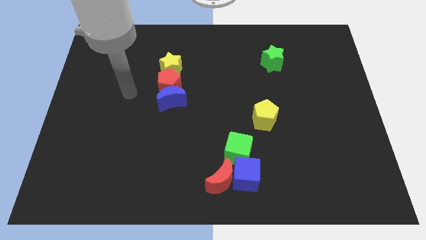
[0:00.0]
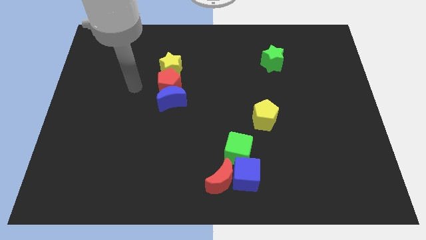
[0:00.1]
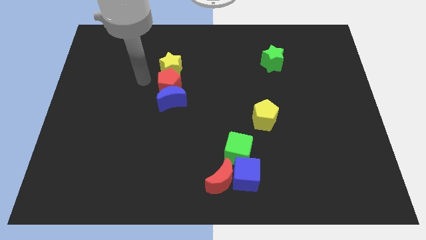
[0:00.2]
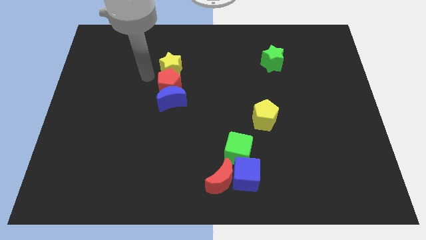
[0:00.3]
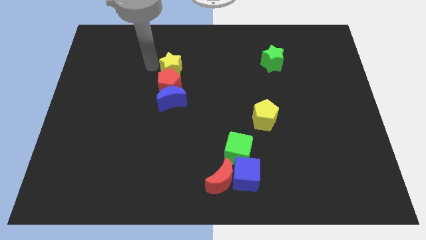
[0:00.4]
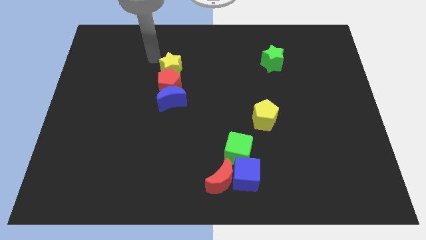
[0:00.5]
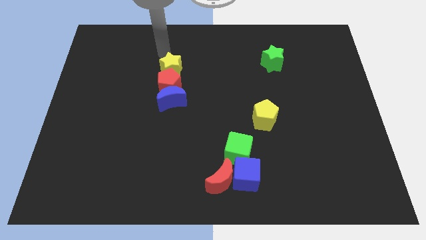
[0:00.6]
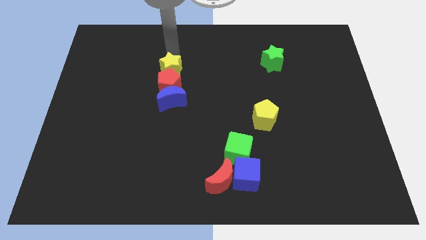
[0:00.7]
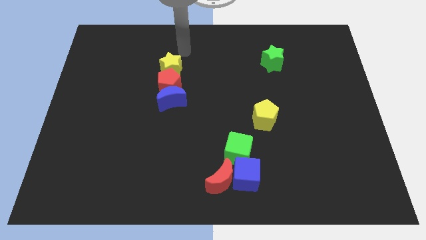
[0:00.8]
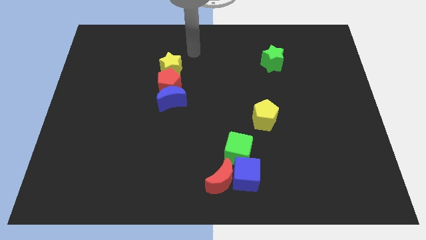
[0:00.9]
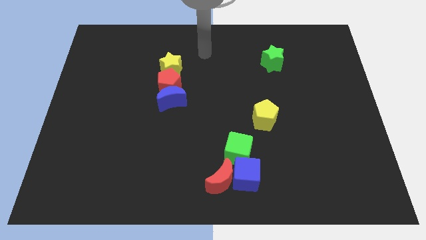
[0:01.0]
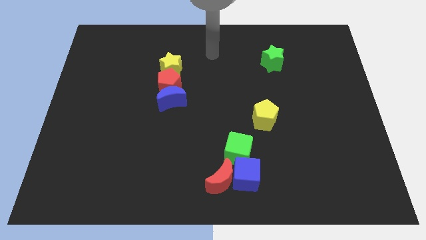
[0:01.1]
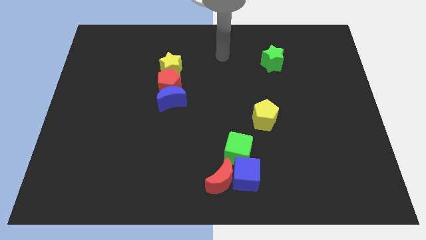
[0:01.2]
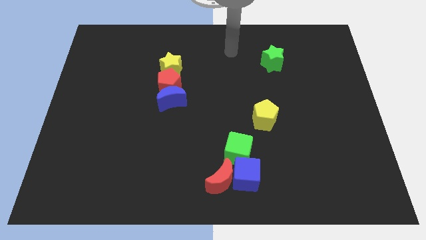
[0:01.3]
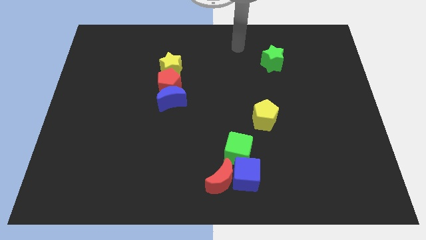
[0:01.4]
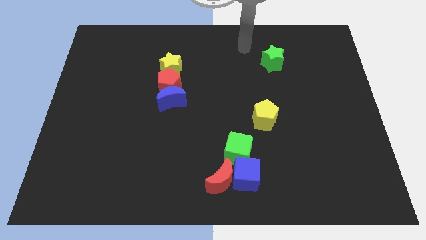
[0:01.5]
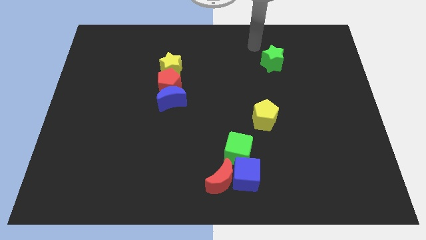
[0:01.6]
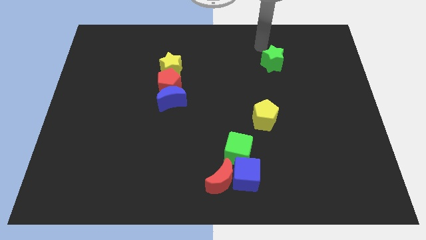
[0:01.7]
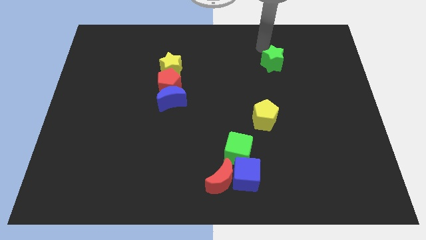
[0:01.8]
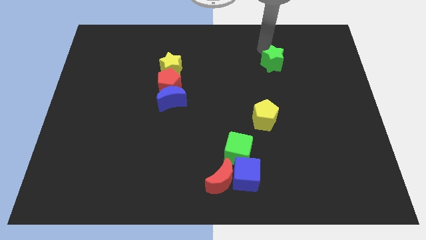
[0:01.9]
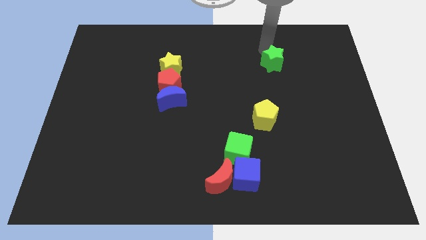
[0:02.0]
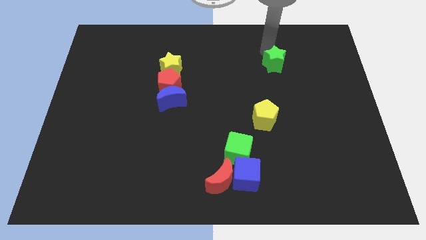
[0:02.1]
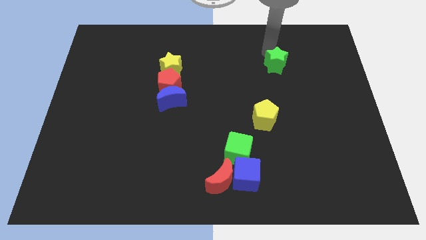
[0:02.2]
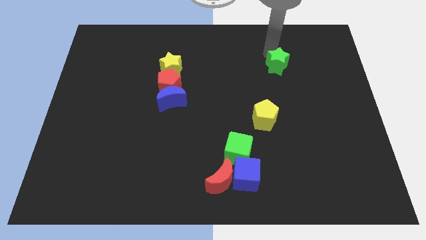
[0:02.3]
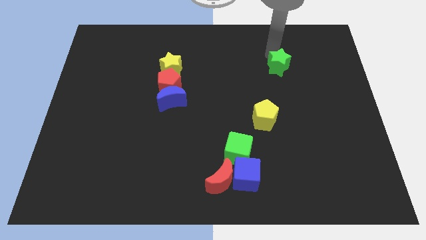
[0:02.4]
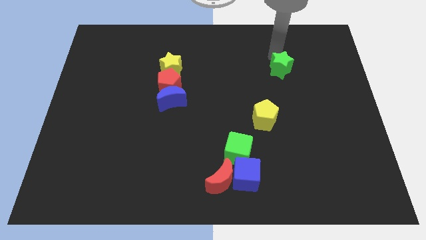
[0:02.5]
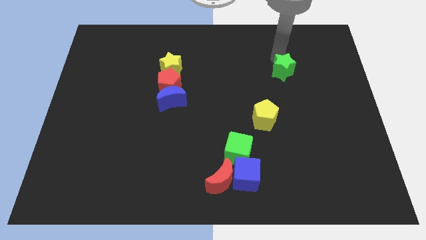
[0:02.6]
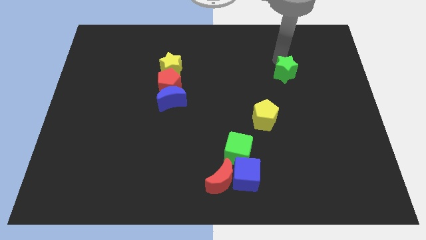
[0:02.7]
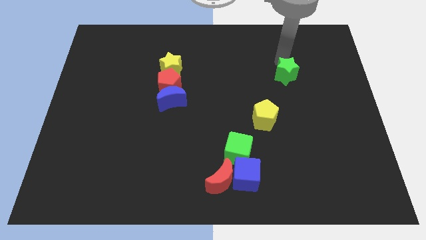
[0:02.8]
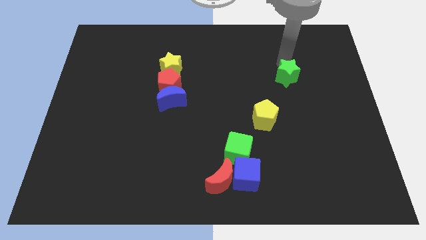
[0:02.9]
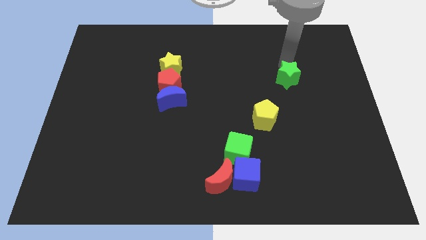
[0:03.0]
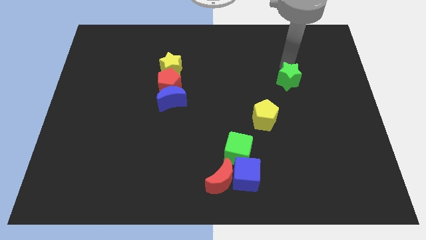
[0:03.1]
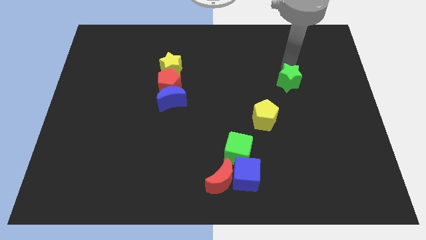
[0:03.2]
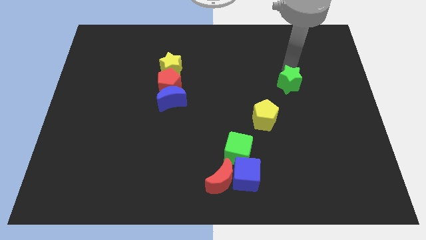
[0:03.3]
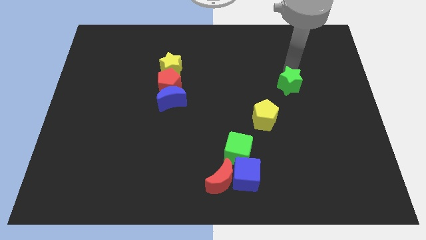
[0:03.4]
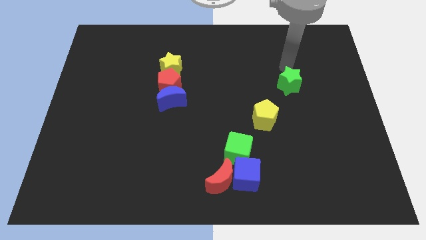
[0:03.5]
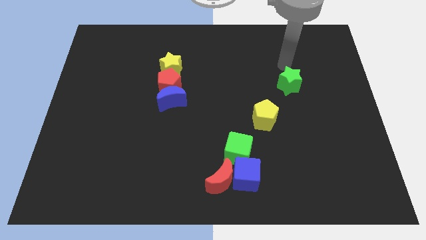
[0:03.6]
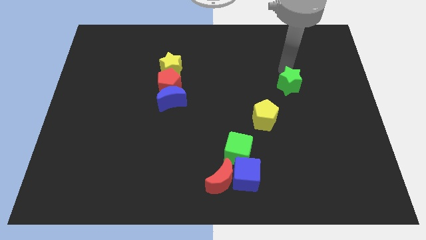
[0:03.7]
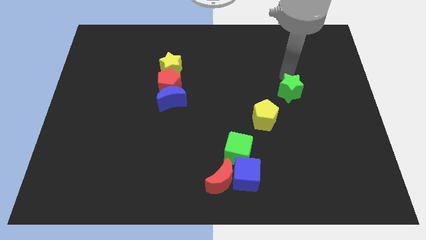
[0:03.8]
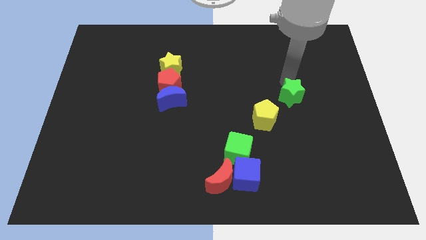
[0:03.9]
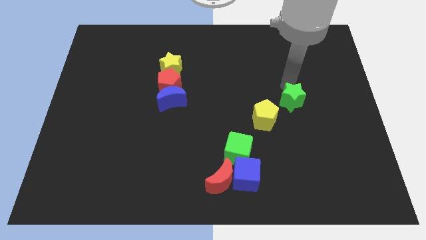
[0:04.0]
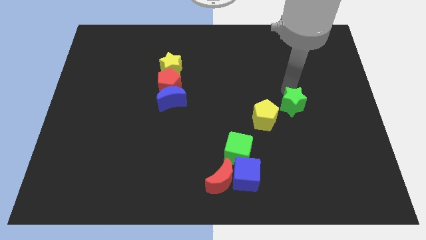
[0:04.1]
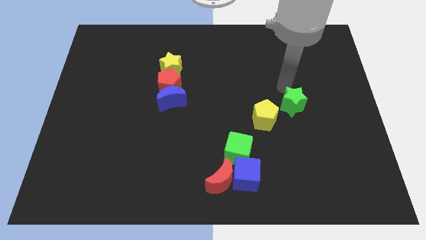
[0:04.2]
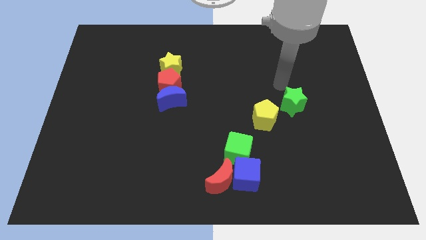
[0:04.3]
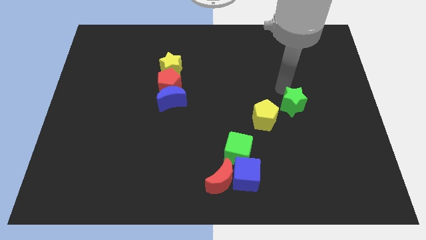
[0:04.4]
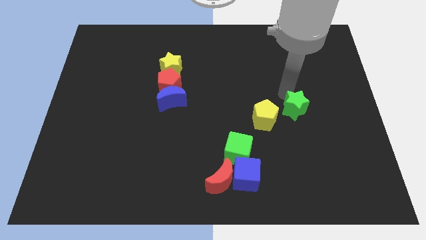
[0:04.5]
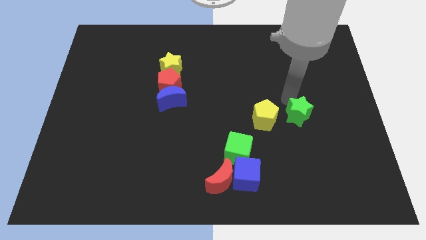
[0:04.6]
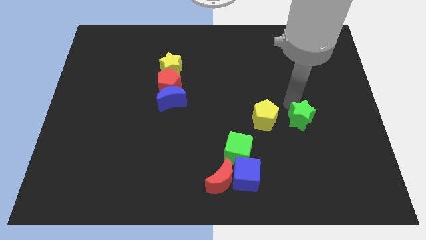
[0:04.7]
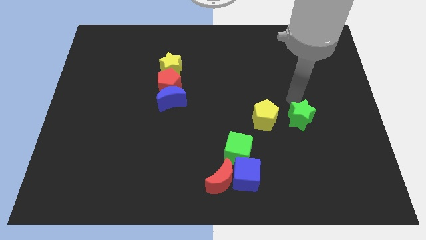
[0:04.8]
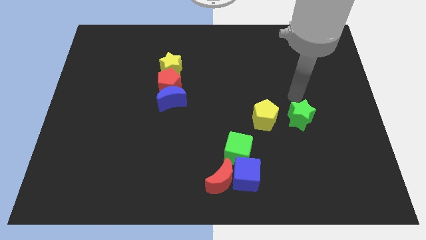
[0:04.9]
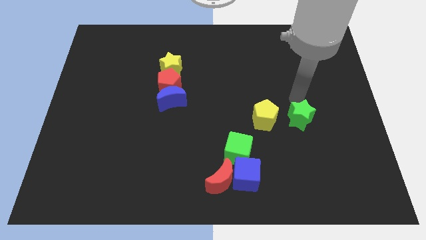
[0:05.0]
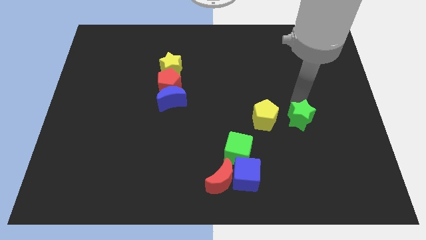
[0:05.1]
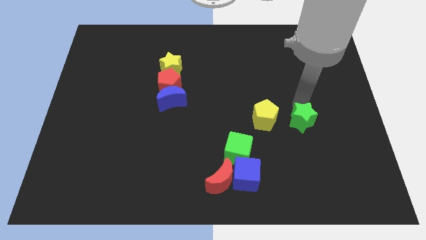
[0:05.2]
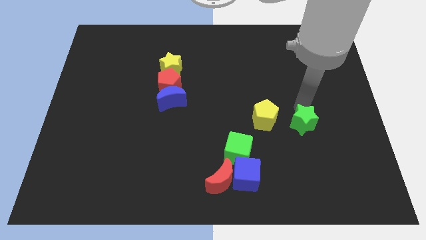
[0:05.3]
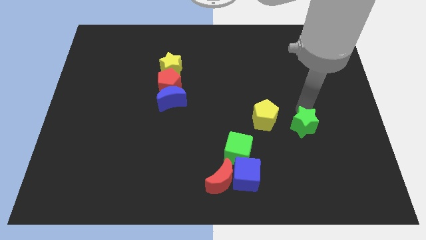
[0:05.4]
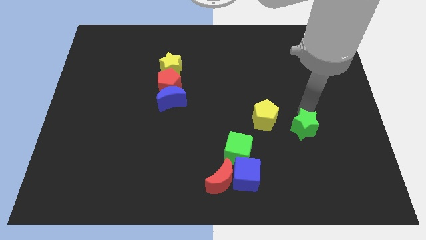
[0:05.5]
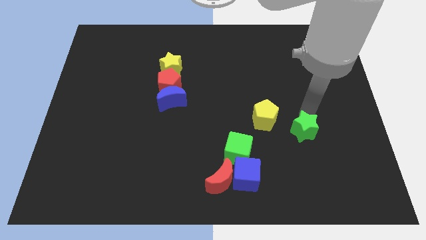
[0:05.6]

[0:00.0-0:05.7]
move the green star down

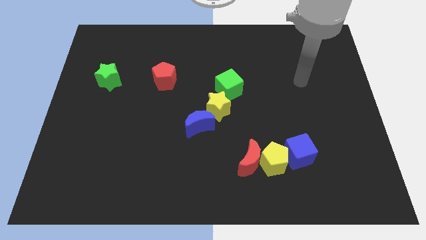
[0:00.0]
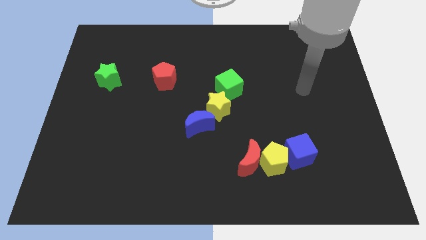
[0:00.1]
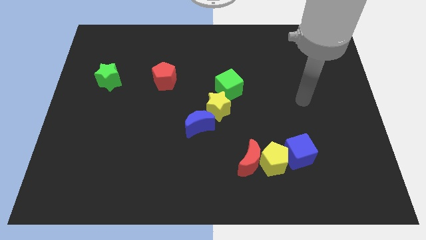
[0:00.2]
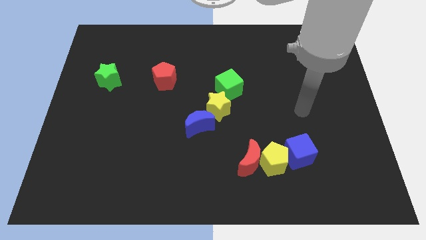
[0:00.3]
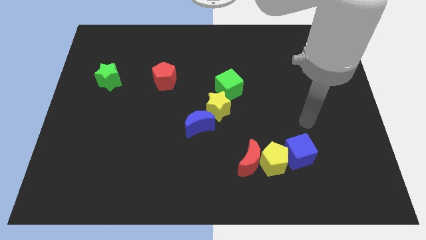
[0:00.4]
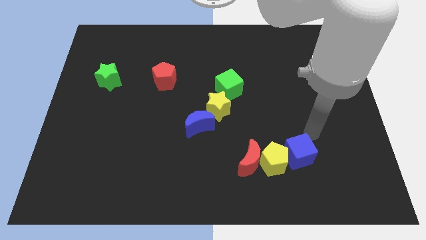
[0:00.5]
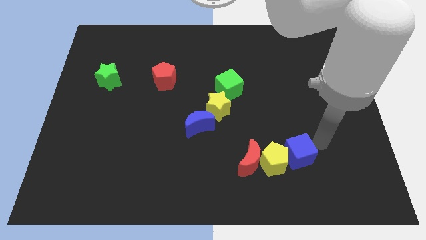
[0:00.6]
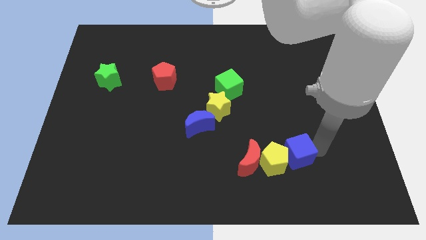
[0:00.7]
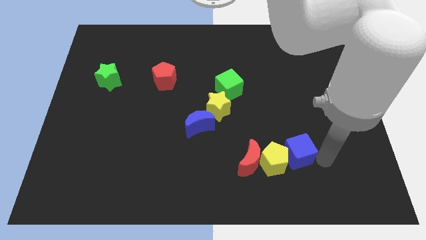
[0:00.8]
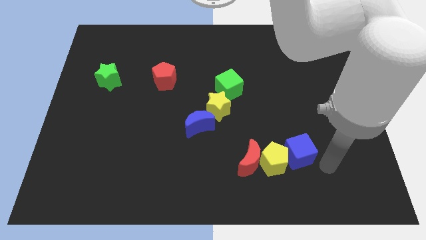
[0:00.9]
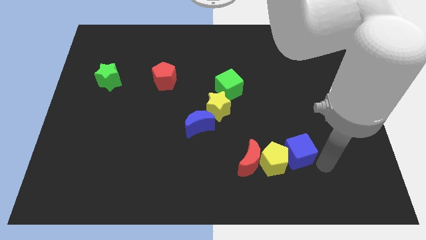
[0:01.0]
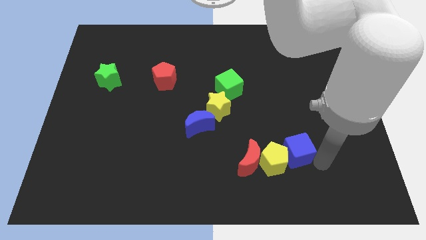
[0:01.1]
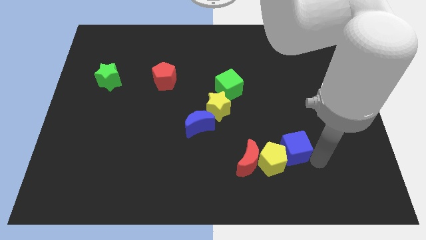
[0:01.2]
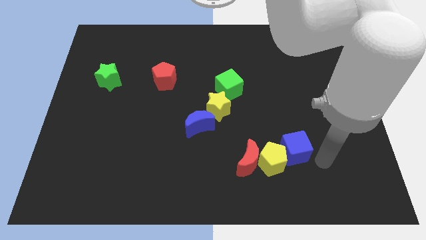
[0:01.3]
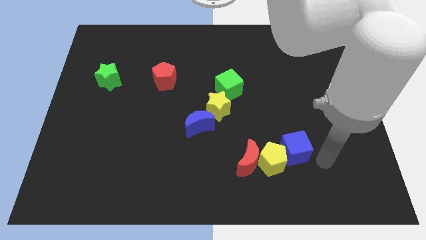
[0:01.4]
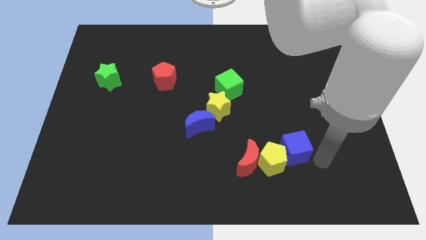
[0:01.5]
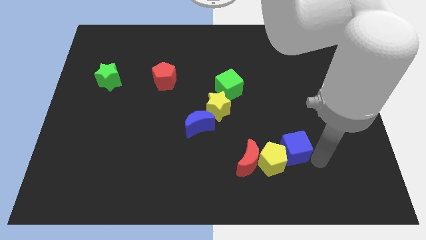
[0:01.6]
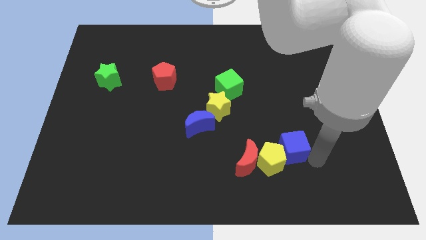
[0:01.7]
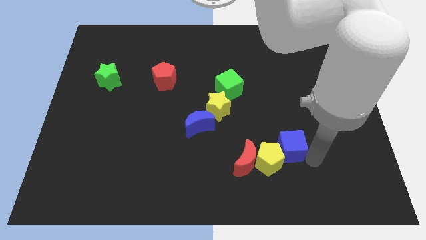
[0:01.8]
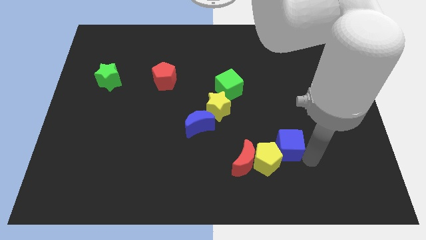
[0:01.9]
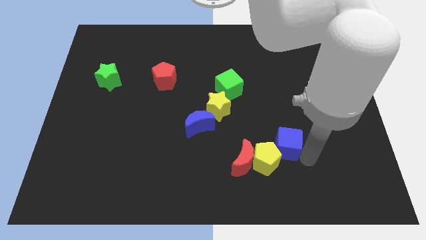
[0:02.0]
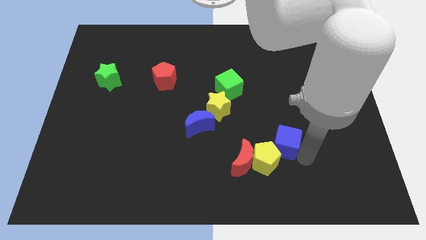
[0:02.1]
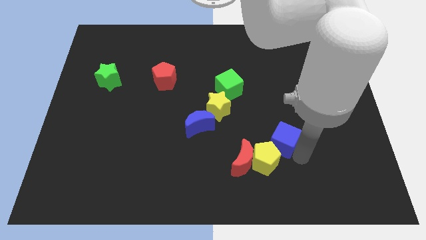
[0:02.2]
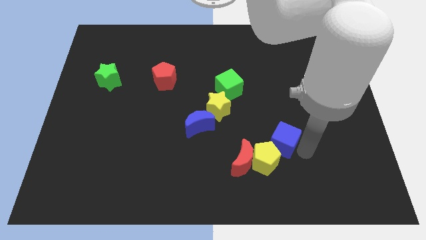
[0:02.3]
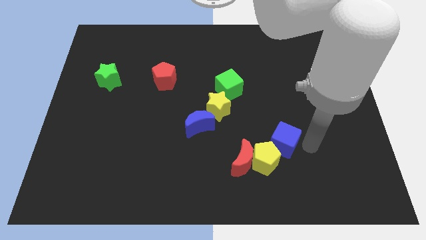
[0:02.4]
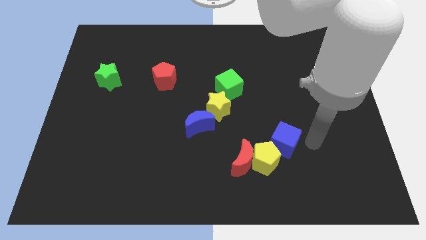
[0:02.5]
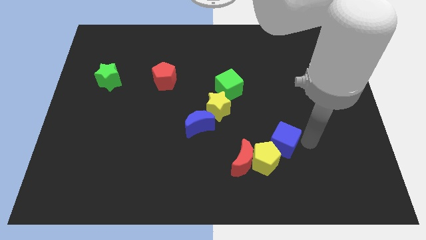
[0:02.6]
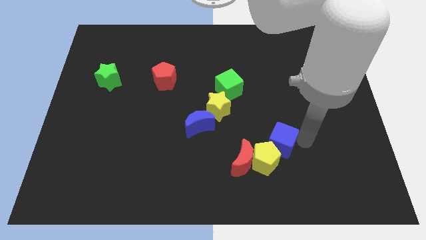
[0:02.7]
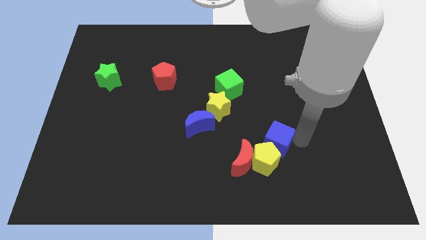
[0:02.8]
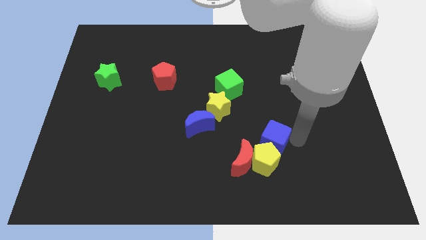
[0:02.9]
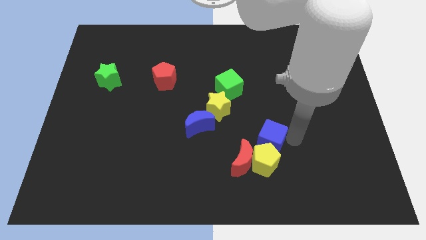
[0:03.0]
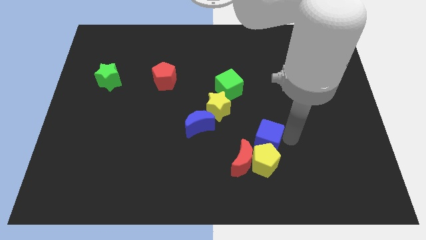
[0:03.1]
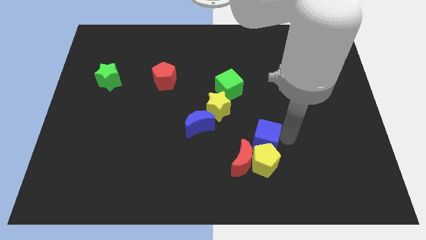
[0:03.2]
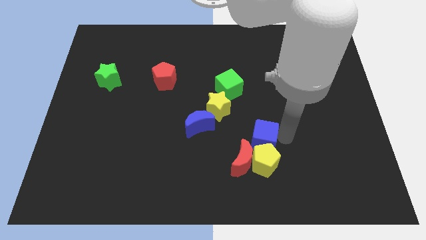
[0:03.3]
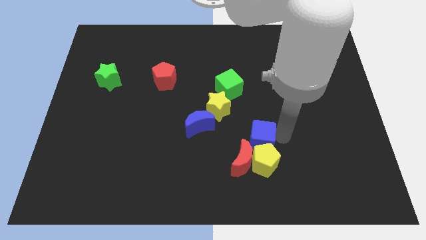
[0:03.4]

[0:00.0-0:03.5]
slightly push the blue cube left
